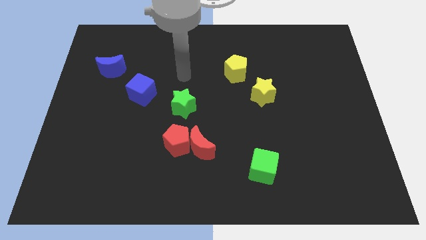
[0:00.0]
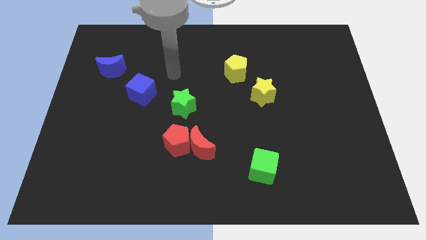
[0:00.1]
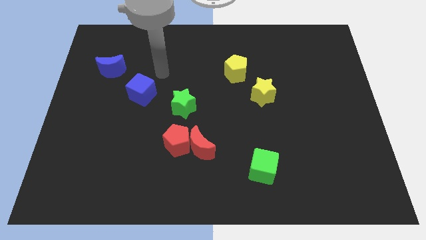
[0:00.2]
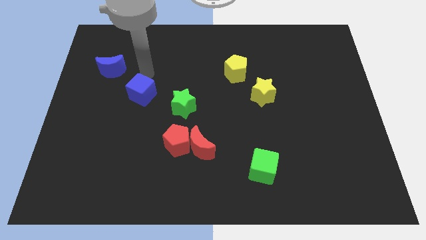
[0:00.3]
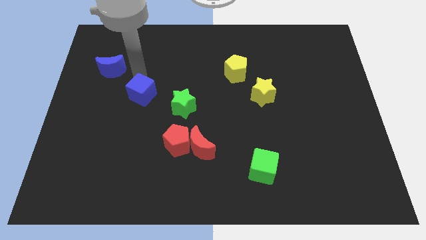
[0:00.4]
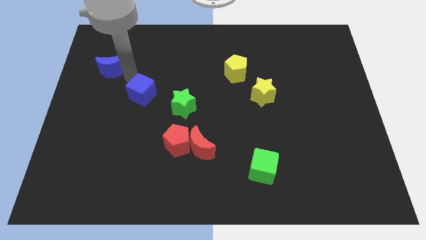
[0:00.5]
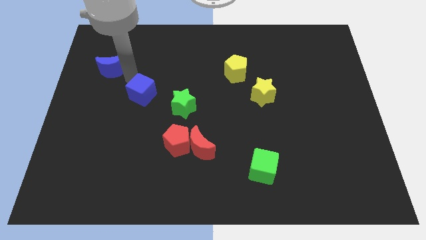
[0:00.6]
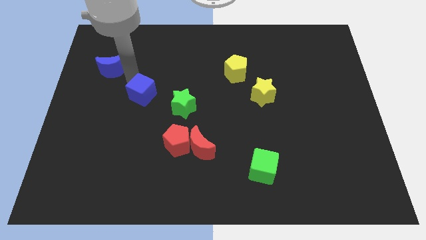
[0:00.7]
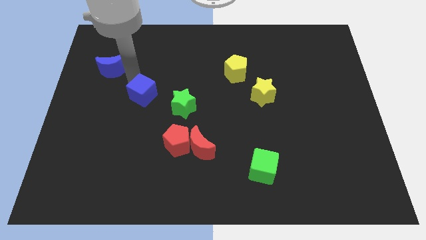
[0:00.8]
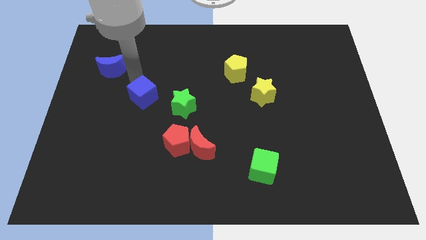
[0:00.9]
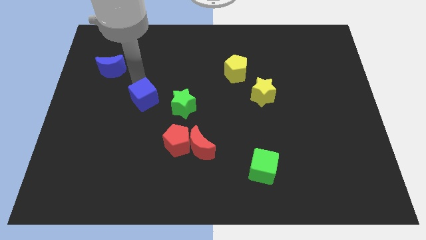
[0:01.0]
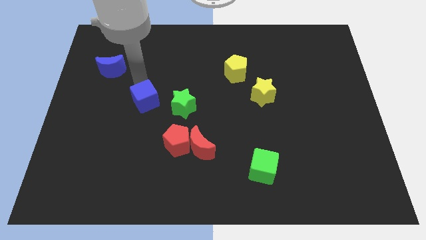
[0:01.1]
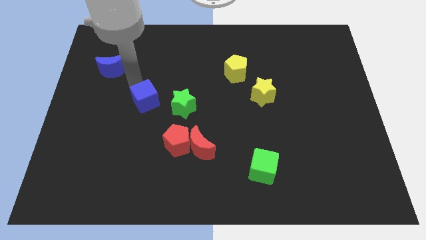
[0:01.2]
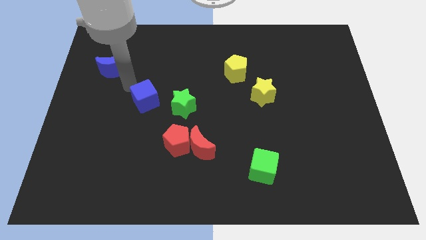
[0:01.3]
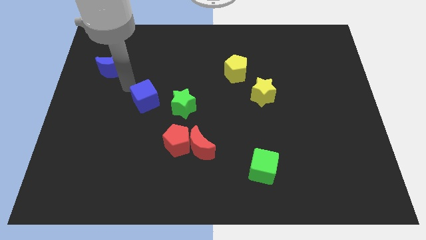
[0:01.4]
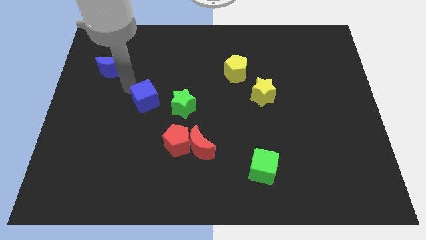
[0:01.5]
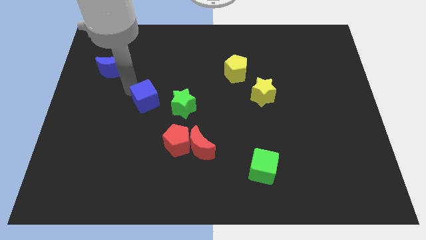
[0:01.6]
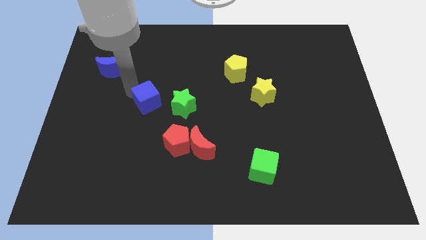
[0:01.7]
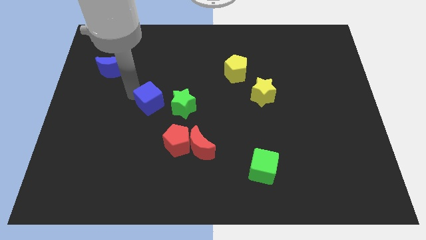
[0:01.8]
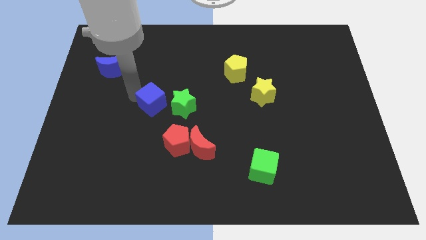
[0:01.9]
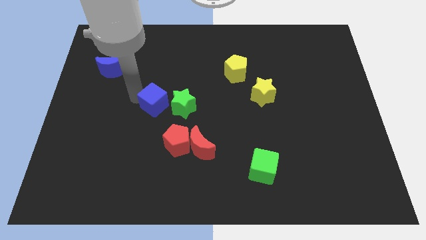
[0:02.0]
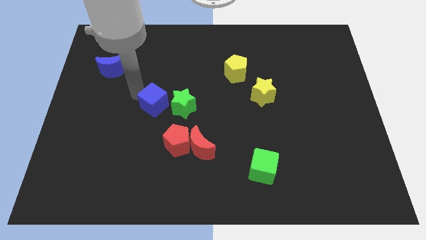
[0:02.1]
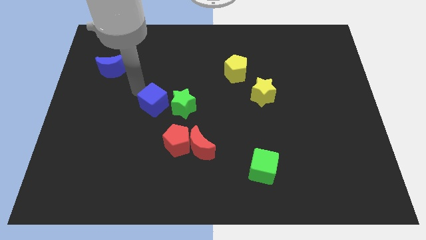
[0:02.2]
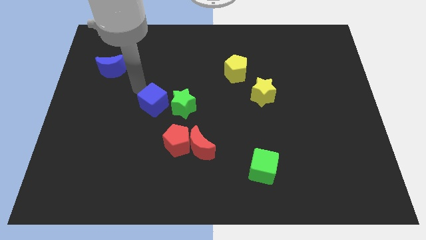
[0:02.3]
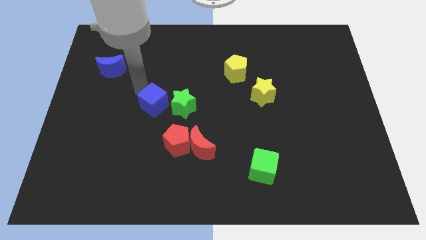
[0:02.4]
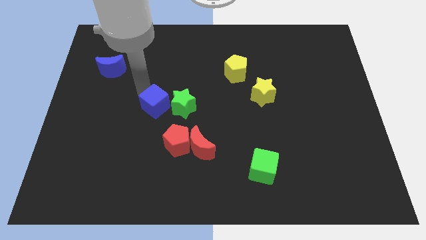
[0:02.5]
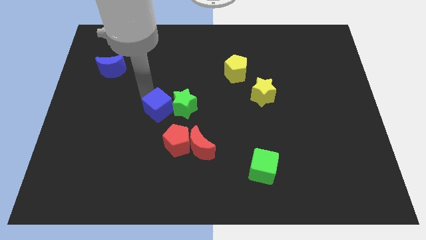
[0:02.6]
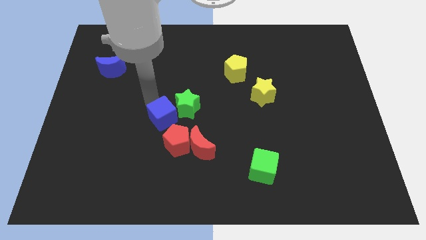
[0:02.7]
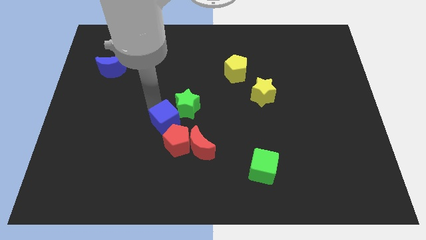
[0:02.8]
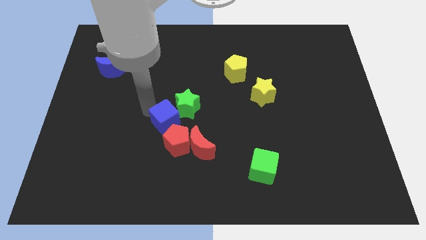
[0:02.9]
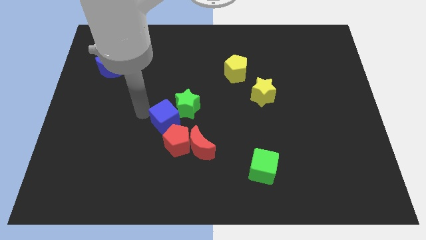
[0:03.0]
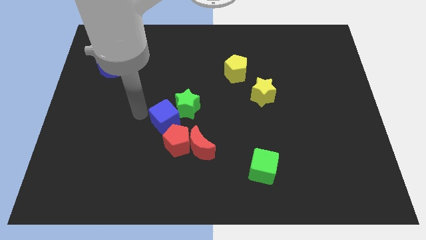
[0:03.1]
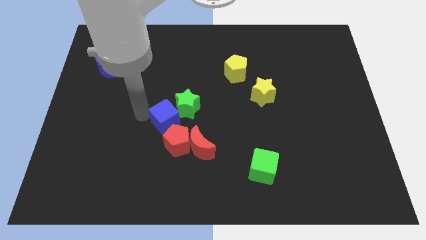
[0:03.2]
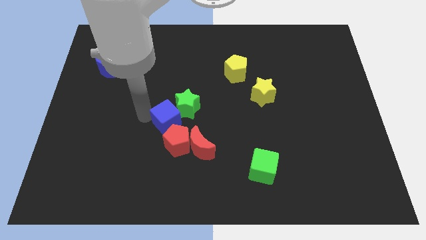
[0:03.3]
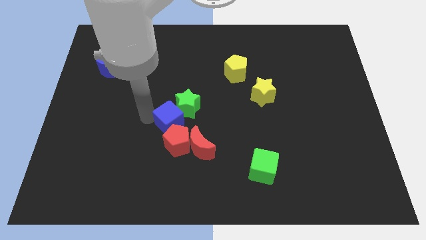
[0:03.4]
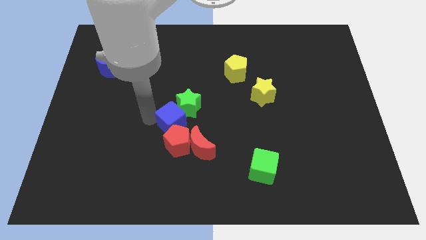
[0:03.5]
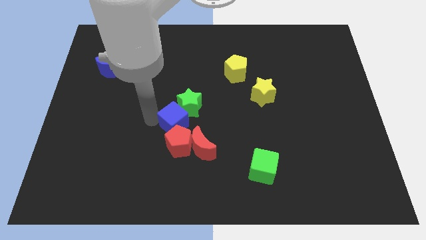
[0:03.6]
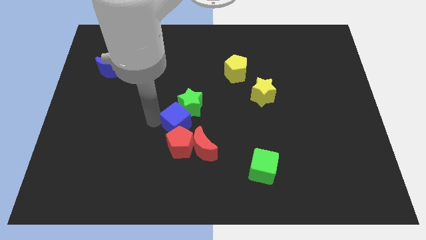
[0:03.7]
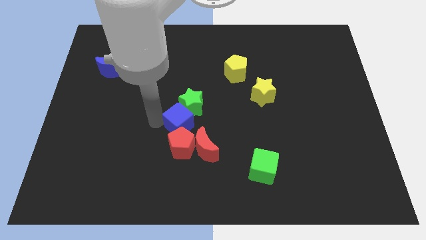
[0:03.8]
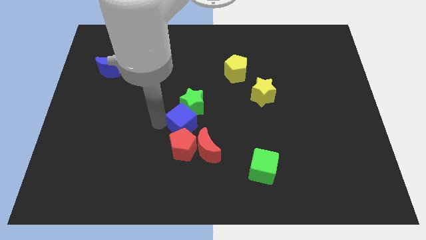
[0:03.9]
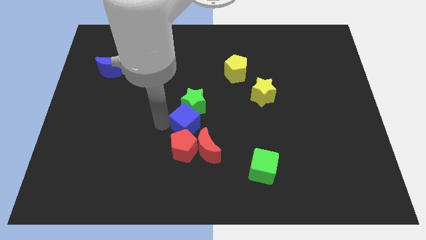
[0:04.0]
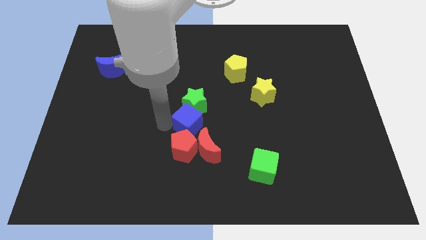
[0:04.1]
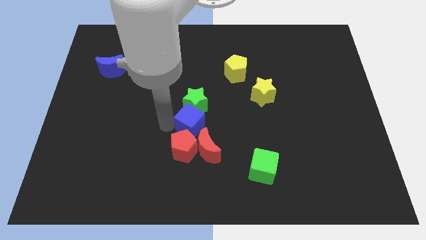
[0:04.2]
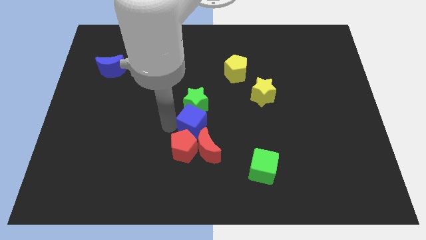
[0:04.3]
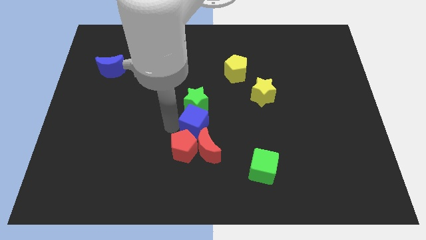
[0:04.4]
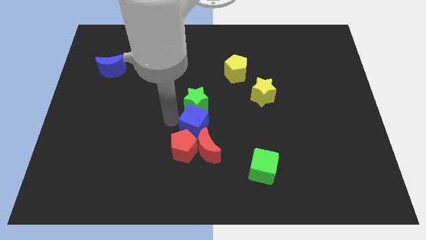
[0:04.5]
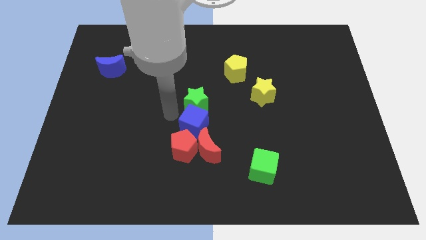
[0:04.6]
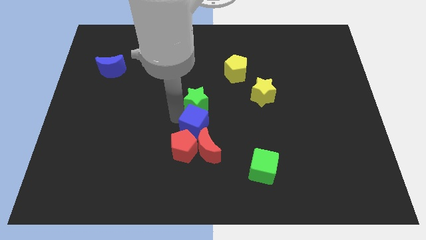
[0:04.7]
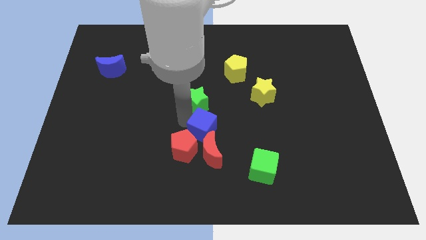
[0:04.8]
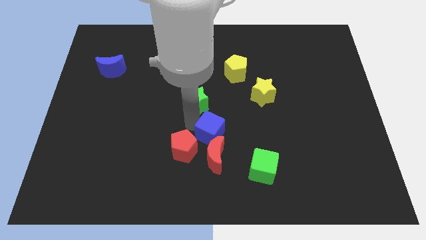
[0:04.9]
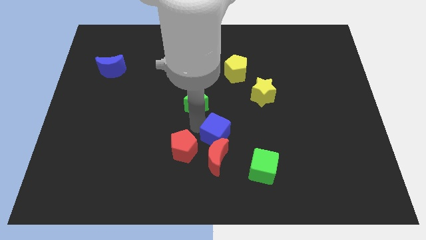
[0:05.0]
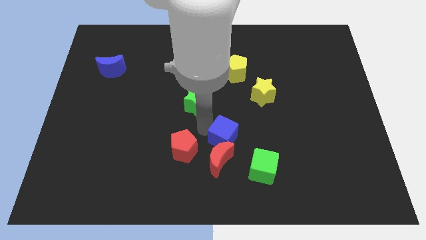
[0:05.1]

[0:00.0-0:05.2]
put the blue cube to the top left of the green cube
